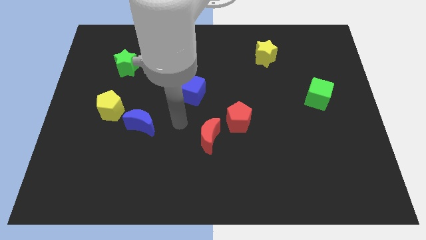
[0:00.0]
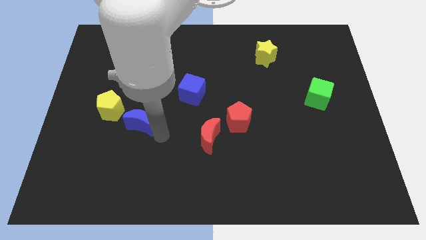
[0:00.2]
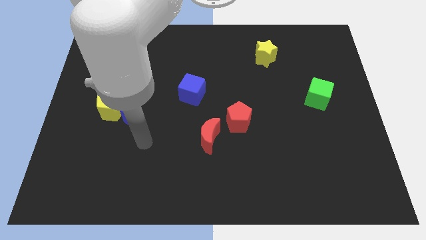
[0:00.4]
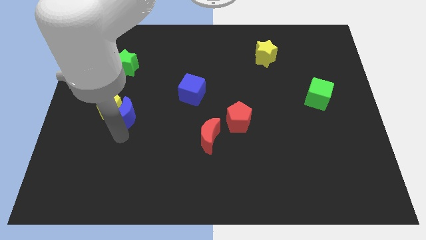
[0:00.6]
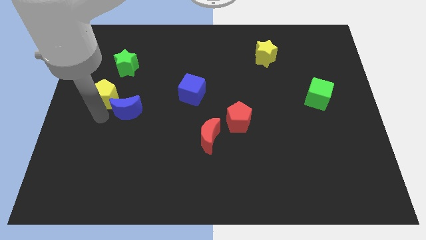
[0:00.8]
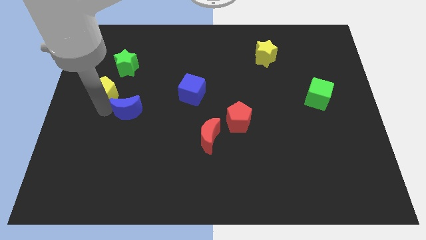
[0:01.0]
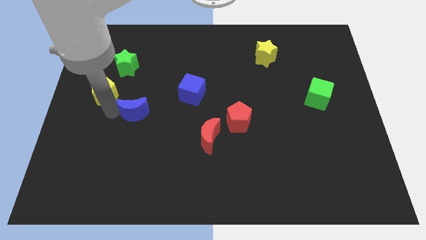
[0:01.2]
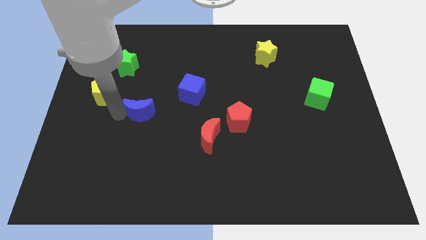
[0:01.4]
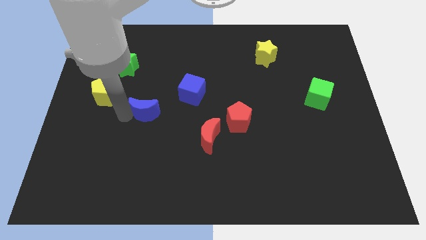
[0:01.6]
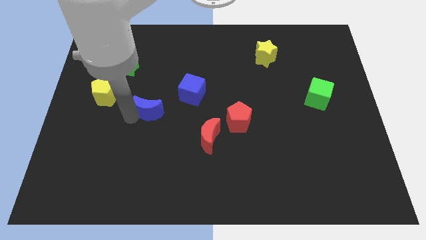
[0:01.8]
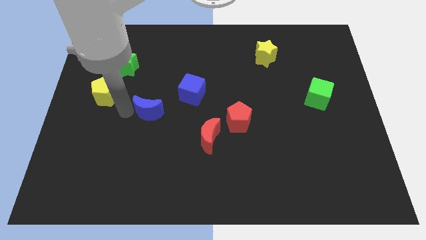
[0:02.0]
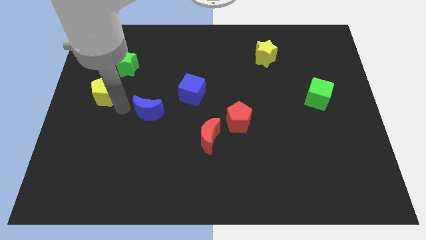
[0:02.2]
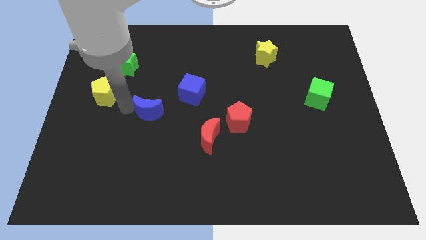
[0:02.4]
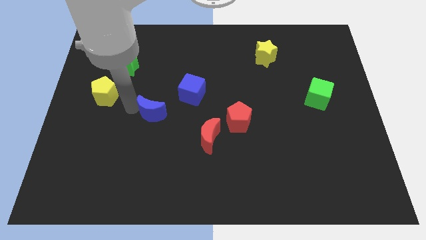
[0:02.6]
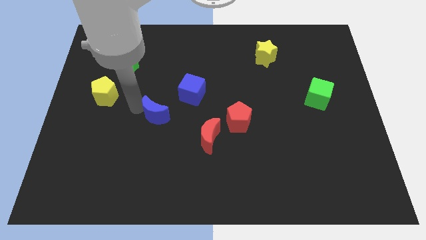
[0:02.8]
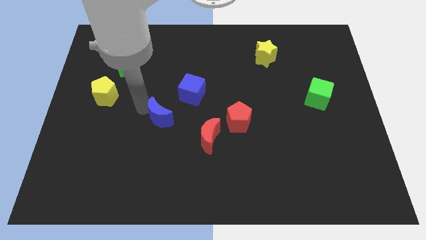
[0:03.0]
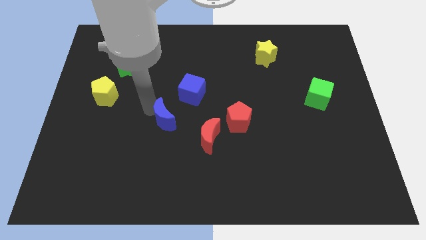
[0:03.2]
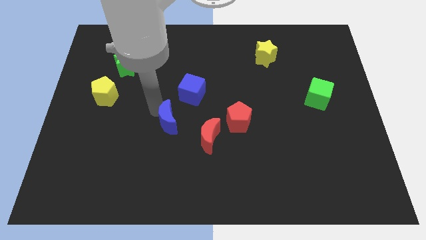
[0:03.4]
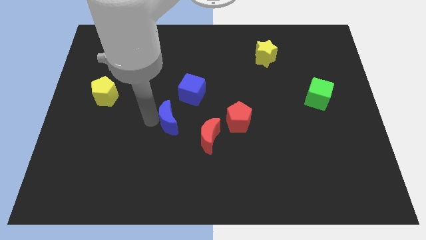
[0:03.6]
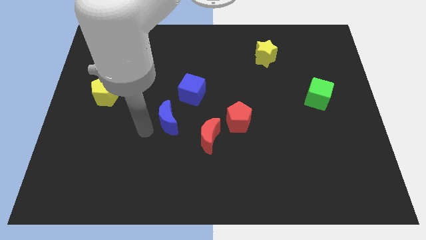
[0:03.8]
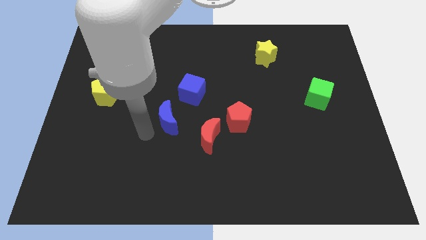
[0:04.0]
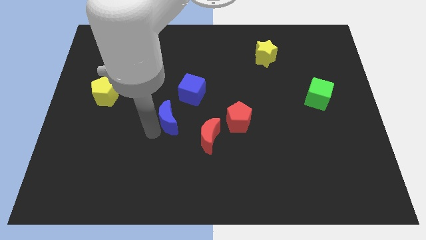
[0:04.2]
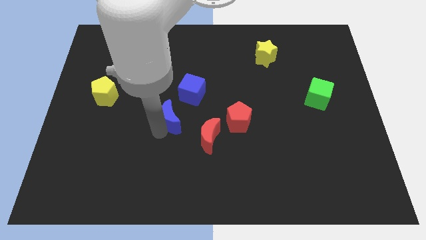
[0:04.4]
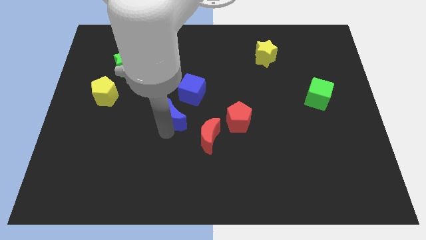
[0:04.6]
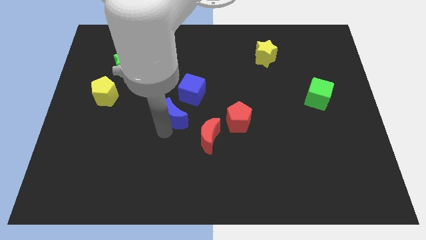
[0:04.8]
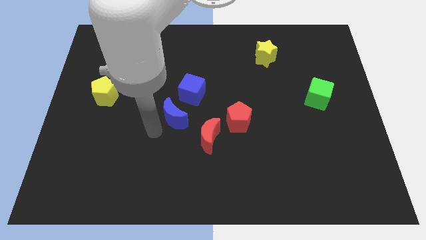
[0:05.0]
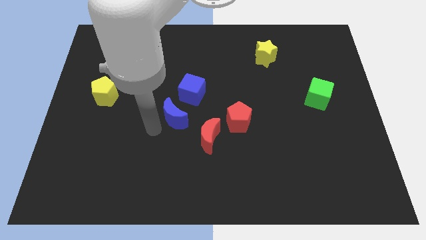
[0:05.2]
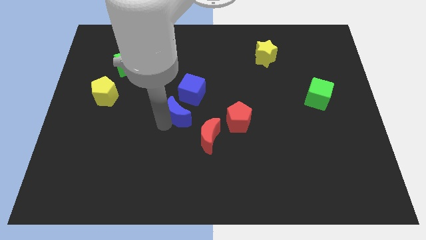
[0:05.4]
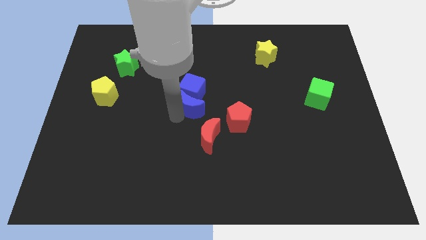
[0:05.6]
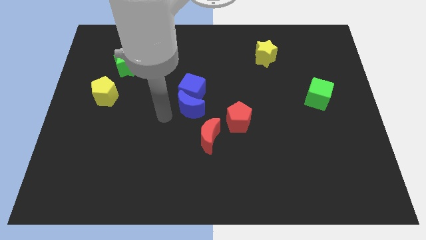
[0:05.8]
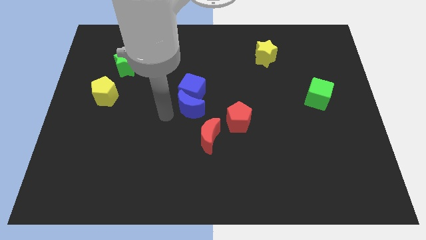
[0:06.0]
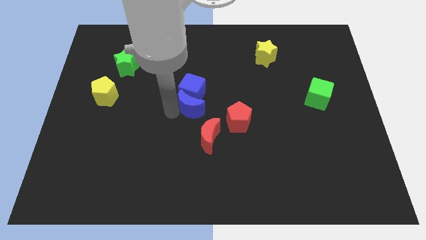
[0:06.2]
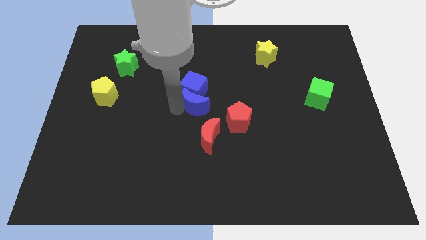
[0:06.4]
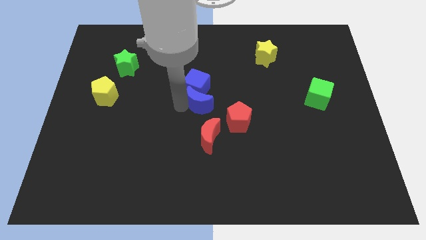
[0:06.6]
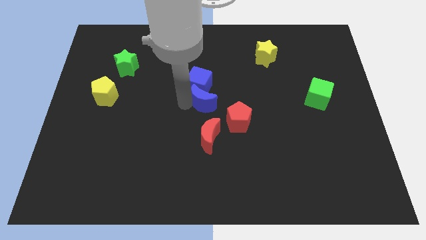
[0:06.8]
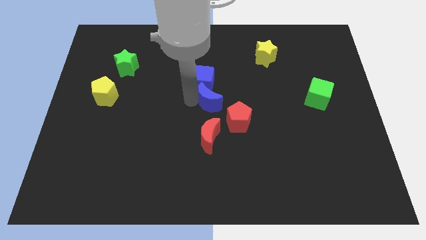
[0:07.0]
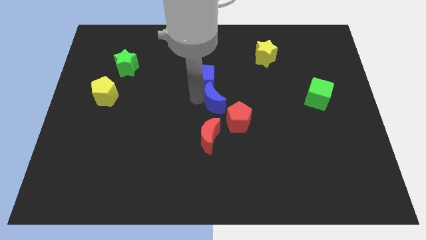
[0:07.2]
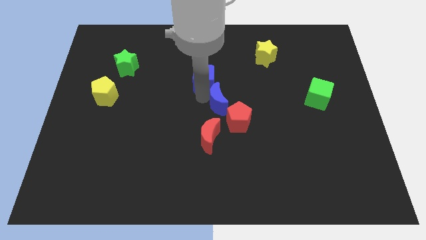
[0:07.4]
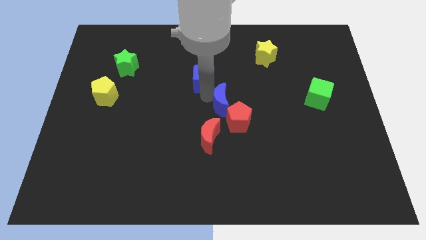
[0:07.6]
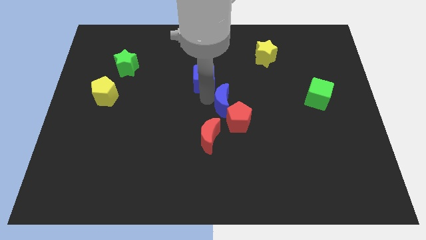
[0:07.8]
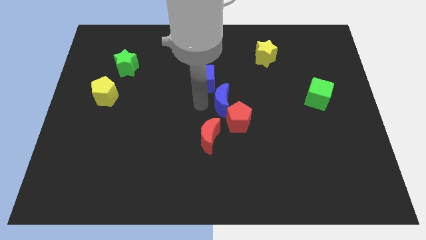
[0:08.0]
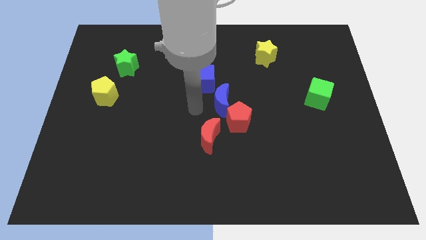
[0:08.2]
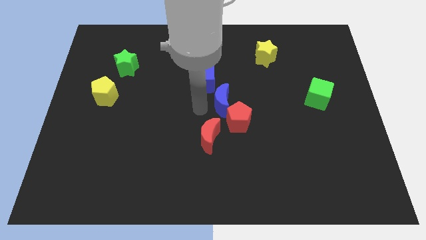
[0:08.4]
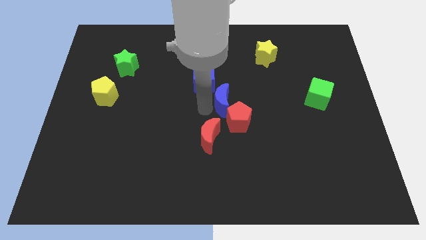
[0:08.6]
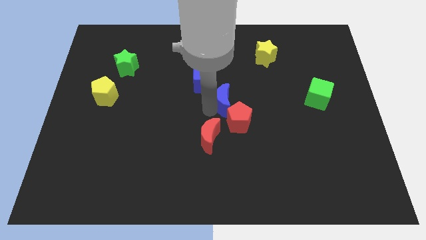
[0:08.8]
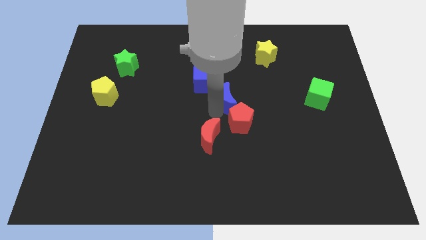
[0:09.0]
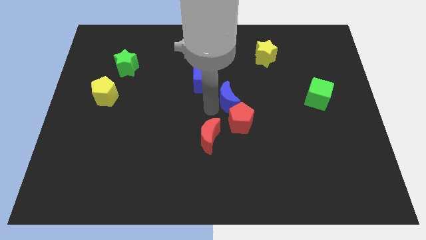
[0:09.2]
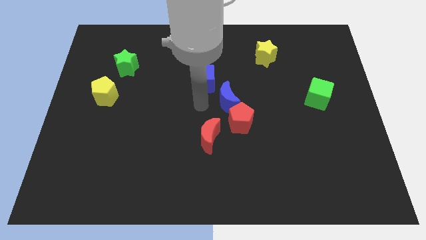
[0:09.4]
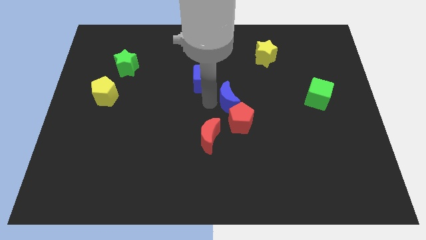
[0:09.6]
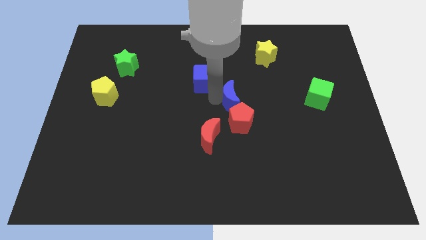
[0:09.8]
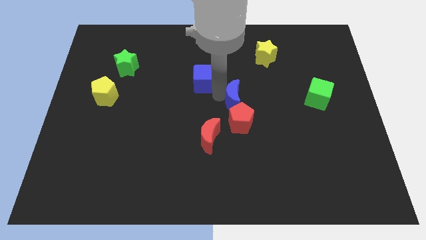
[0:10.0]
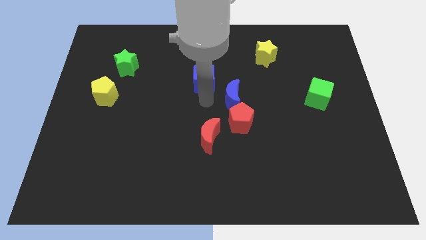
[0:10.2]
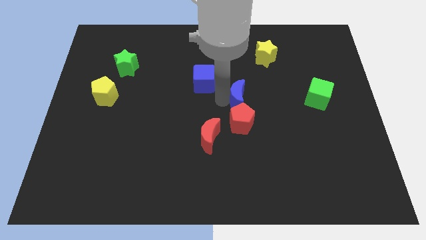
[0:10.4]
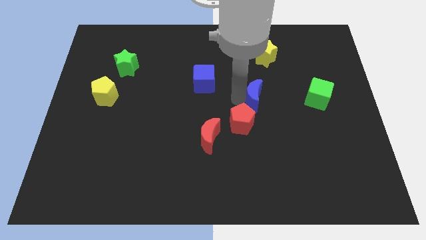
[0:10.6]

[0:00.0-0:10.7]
slide the blue moon to the left side of the green cube

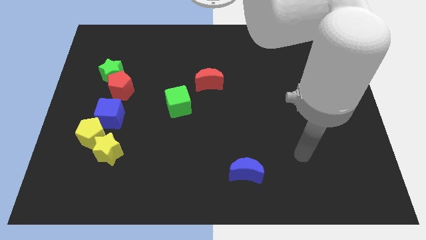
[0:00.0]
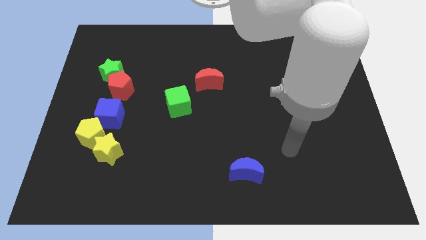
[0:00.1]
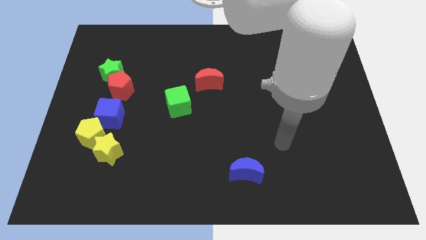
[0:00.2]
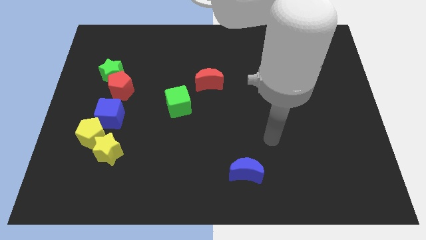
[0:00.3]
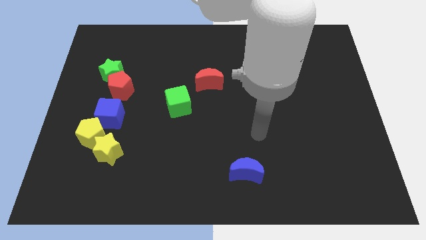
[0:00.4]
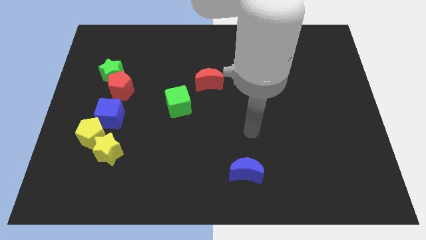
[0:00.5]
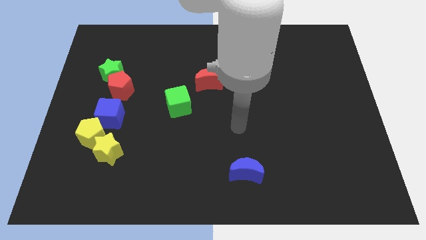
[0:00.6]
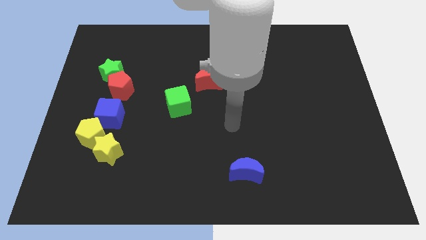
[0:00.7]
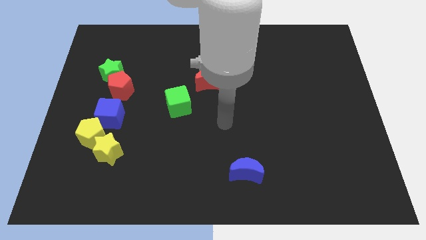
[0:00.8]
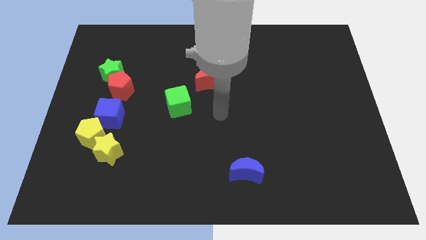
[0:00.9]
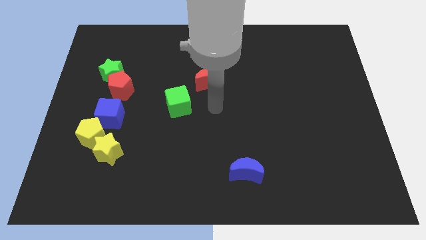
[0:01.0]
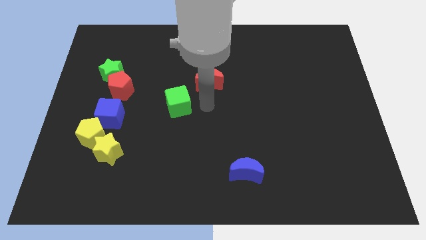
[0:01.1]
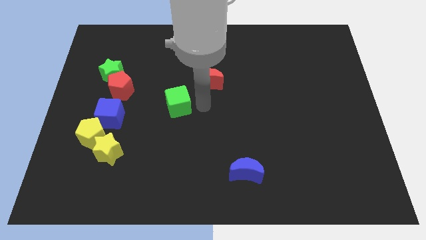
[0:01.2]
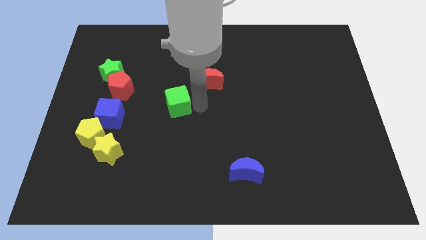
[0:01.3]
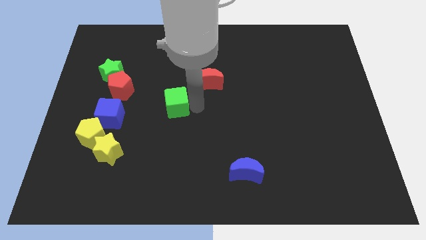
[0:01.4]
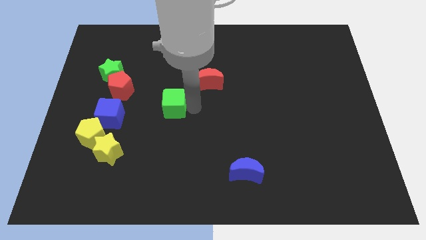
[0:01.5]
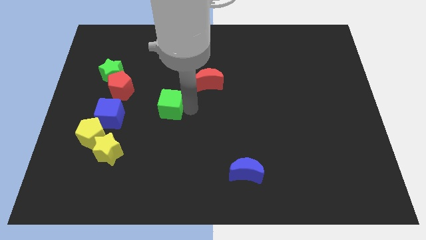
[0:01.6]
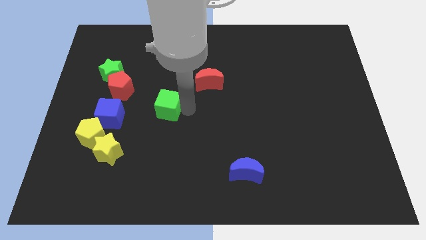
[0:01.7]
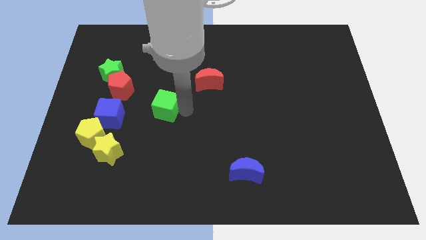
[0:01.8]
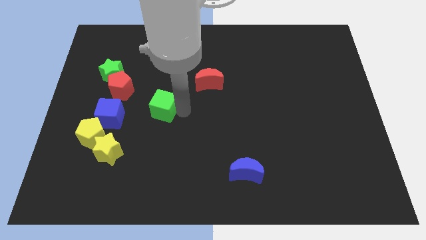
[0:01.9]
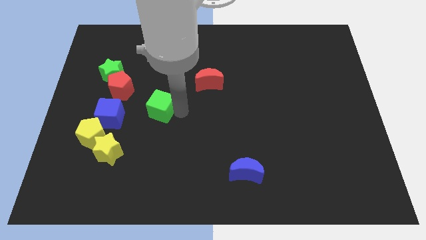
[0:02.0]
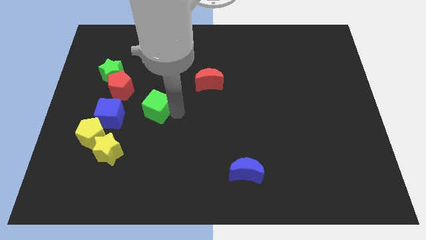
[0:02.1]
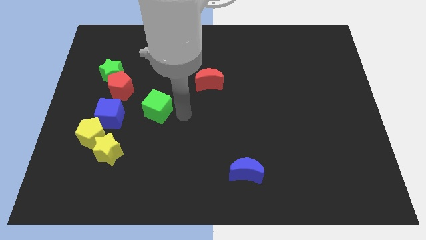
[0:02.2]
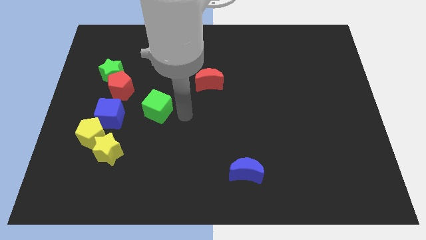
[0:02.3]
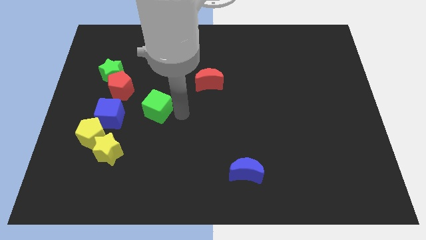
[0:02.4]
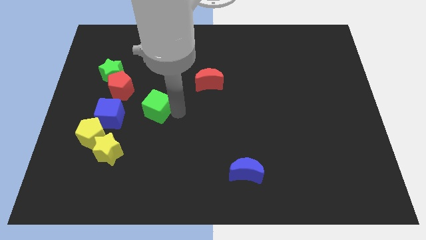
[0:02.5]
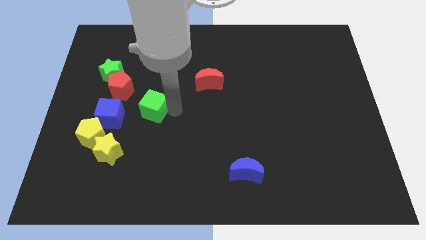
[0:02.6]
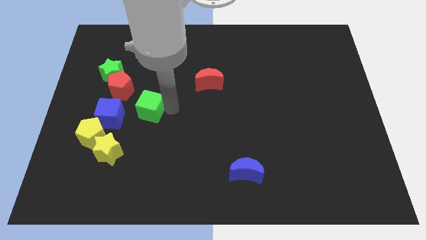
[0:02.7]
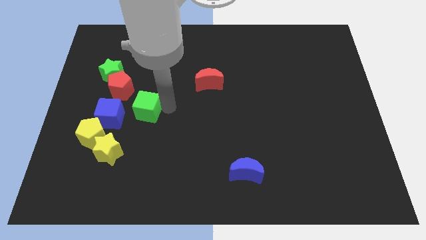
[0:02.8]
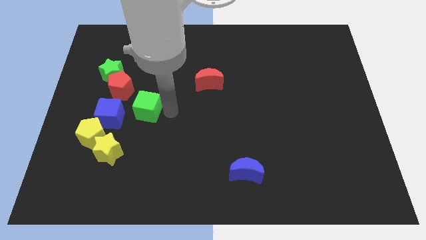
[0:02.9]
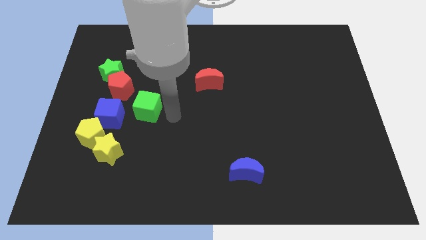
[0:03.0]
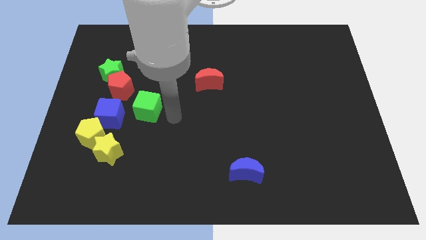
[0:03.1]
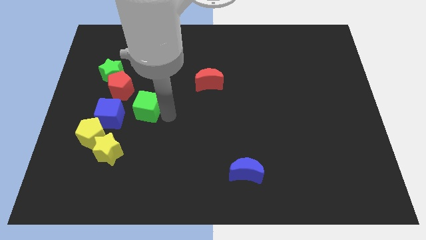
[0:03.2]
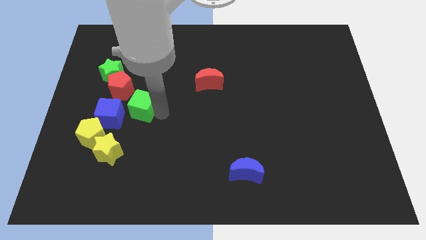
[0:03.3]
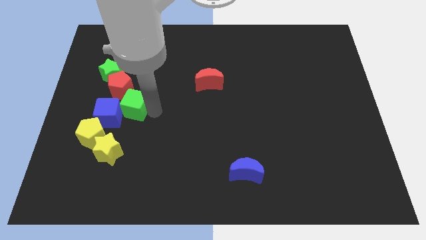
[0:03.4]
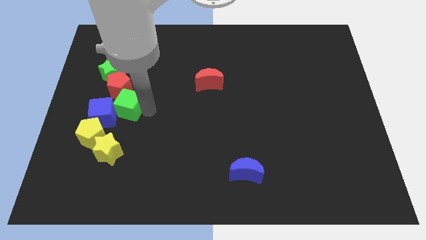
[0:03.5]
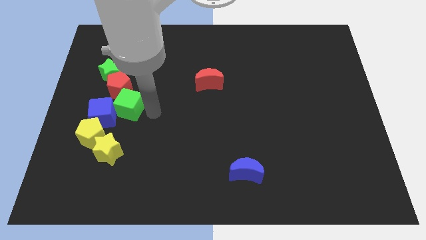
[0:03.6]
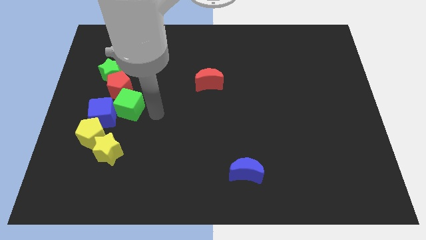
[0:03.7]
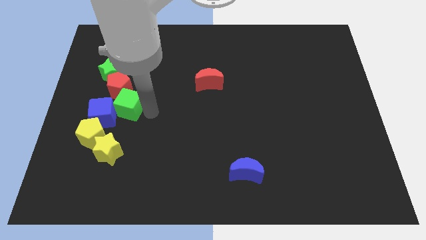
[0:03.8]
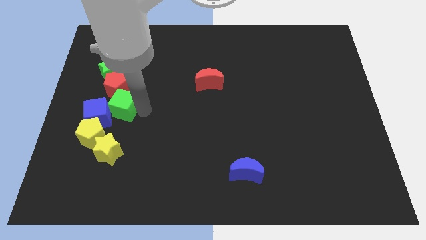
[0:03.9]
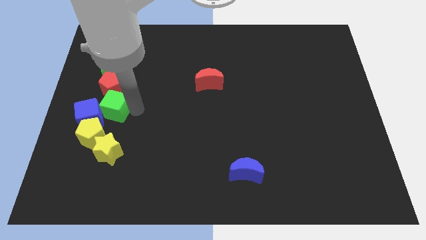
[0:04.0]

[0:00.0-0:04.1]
push the green cube above the yellow pentagon
